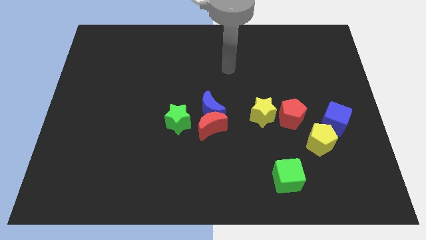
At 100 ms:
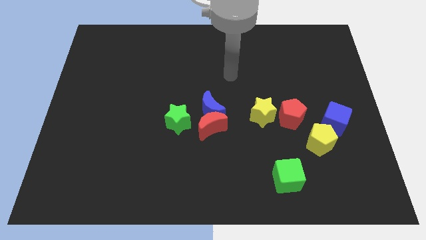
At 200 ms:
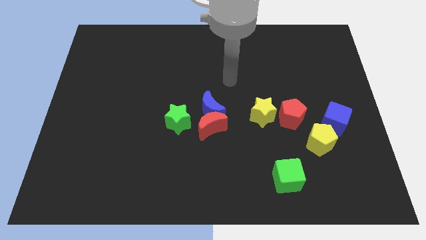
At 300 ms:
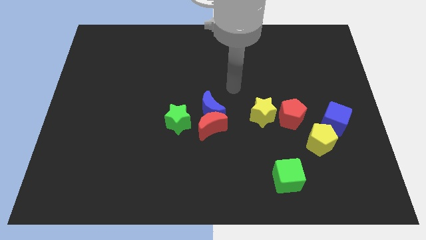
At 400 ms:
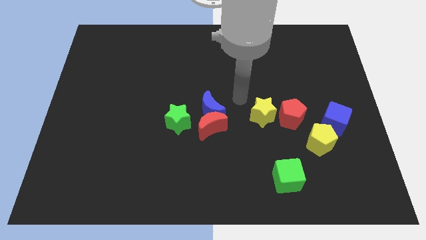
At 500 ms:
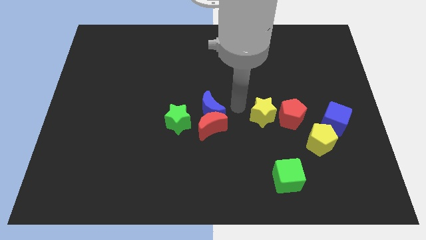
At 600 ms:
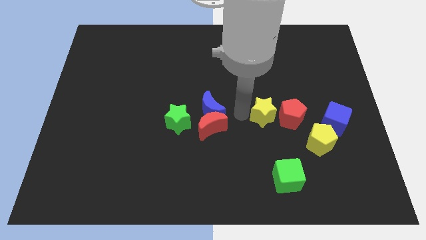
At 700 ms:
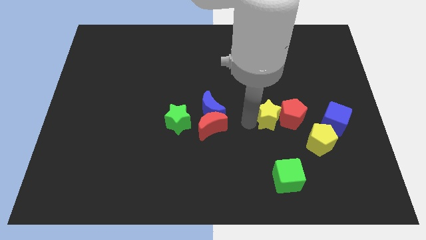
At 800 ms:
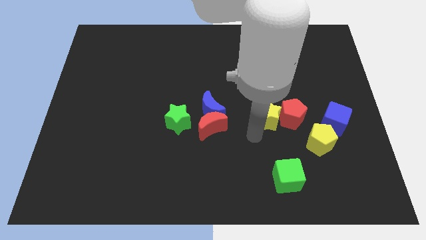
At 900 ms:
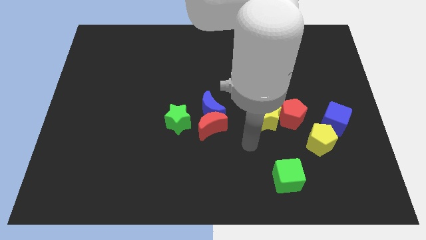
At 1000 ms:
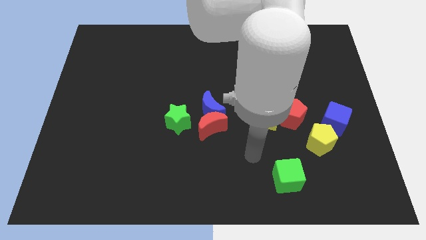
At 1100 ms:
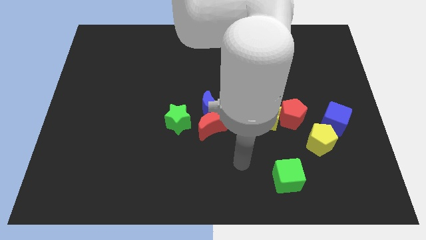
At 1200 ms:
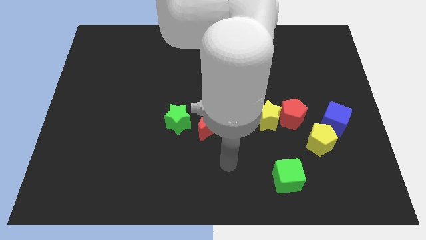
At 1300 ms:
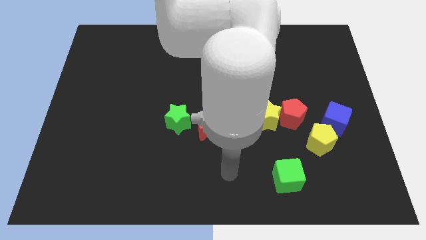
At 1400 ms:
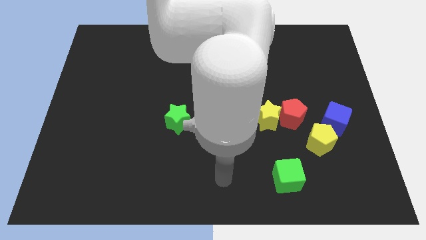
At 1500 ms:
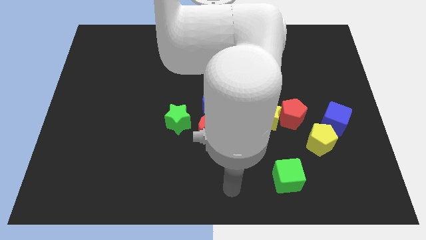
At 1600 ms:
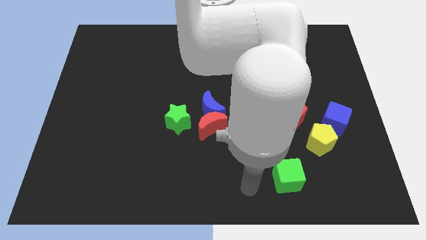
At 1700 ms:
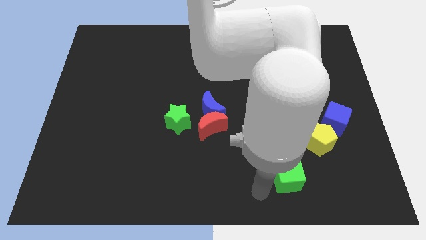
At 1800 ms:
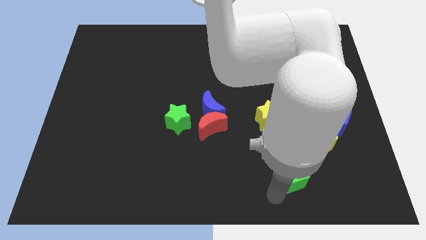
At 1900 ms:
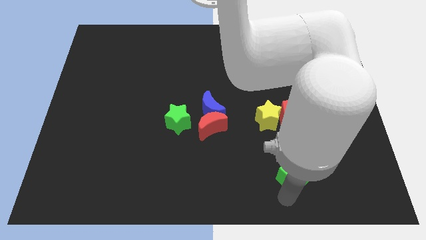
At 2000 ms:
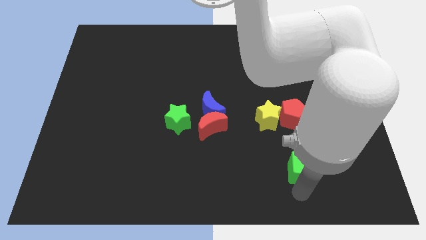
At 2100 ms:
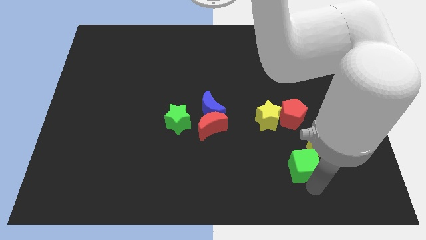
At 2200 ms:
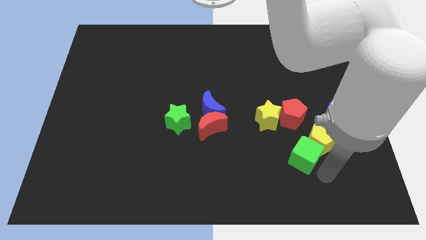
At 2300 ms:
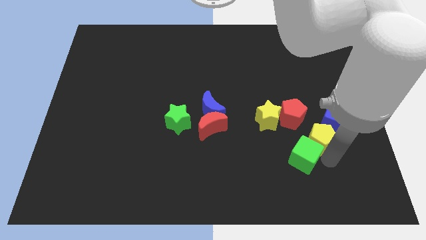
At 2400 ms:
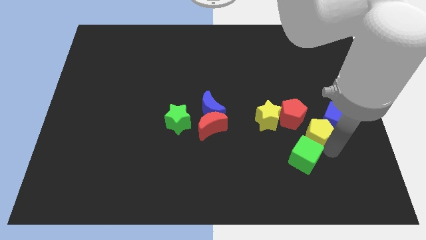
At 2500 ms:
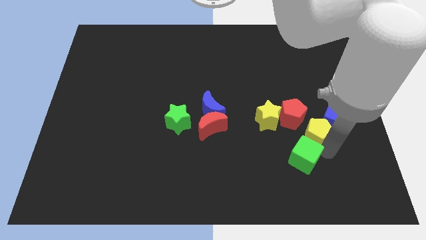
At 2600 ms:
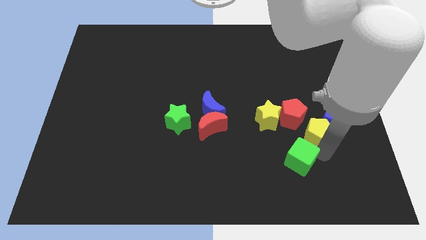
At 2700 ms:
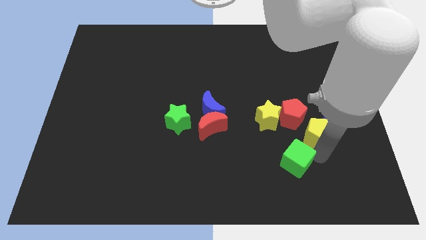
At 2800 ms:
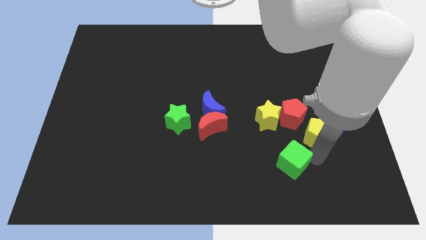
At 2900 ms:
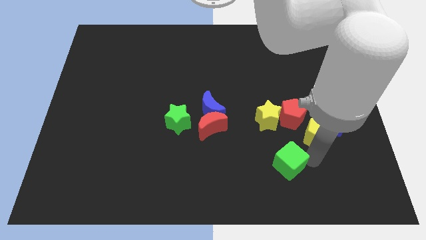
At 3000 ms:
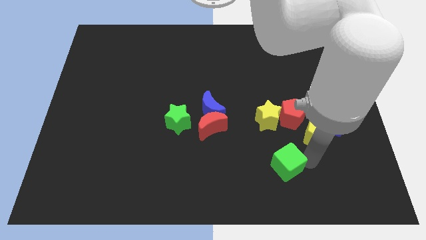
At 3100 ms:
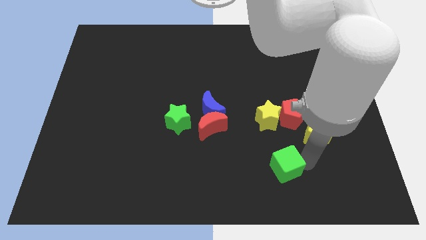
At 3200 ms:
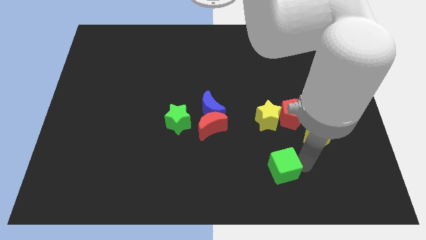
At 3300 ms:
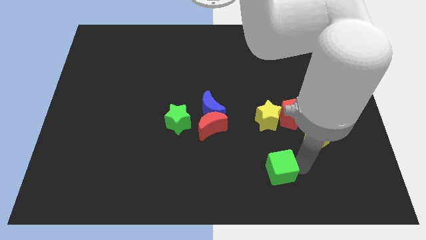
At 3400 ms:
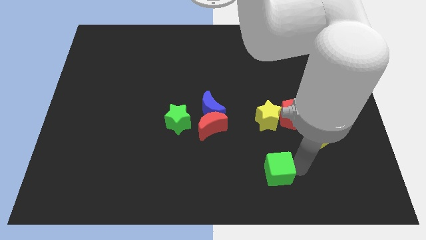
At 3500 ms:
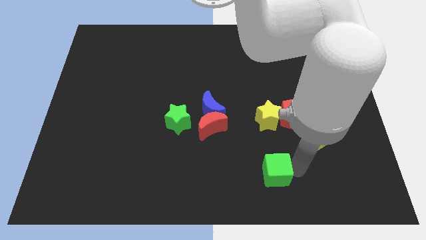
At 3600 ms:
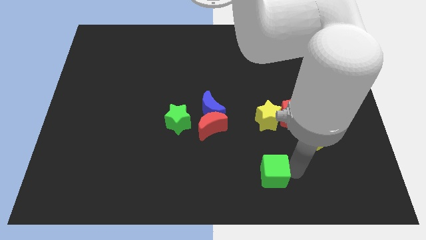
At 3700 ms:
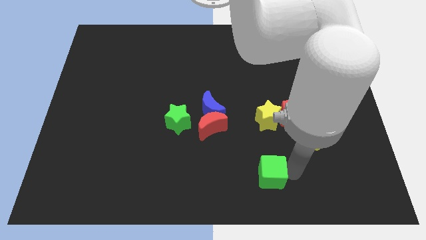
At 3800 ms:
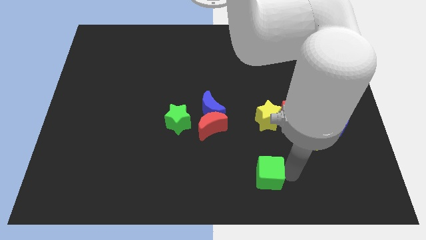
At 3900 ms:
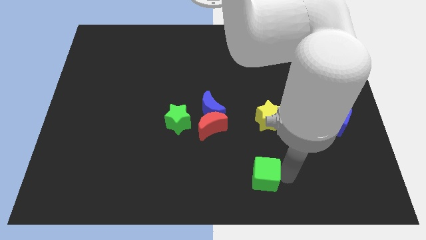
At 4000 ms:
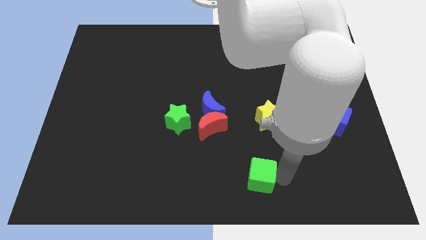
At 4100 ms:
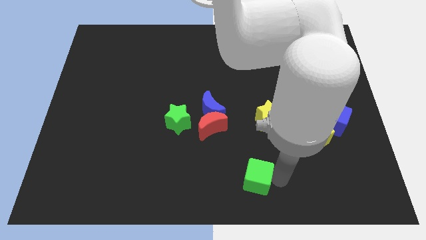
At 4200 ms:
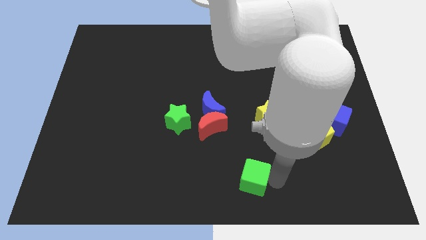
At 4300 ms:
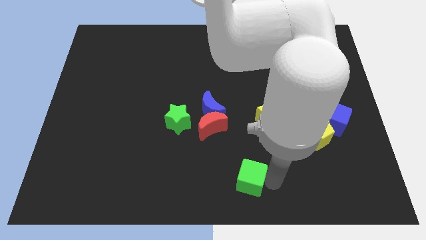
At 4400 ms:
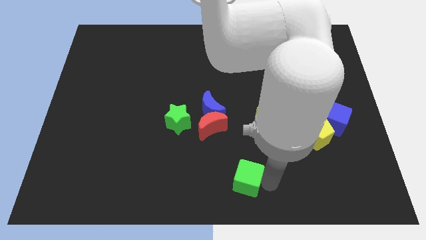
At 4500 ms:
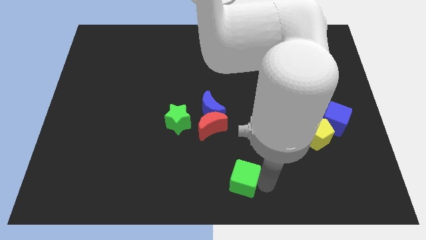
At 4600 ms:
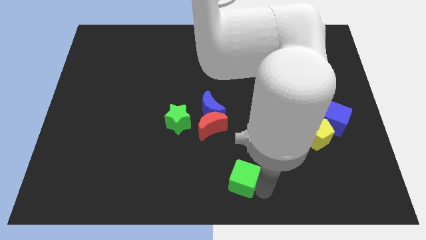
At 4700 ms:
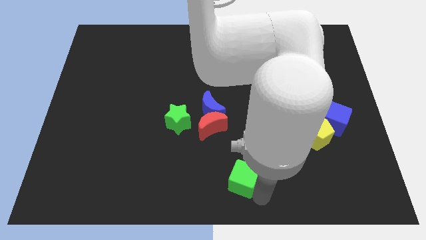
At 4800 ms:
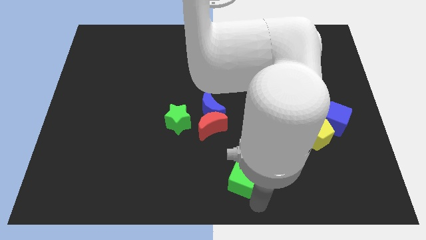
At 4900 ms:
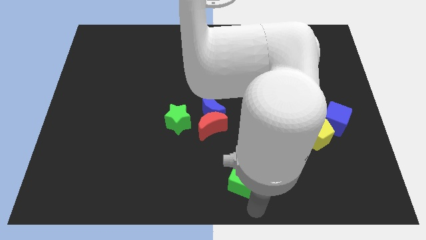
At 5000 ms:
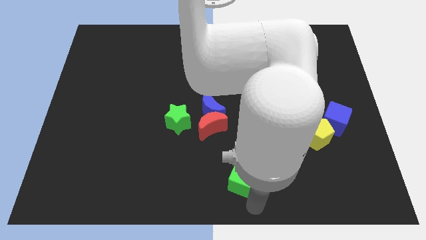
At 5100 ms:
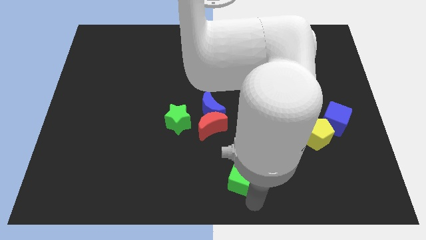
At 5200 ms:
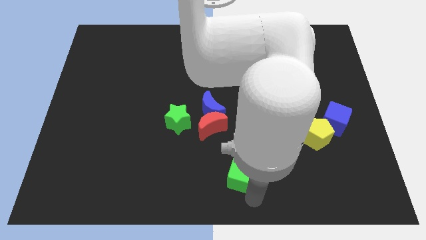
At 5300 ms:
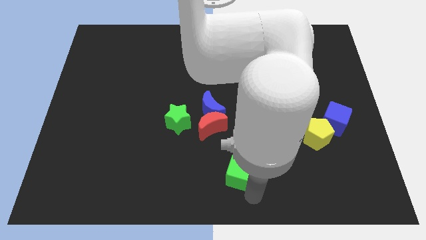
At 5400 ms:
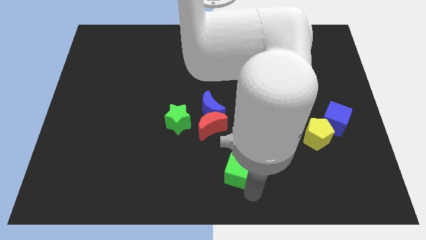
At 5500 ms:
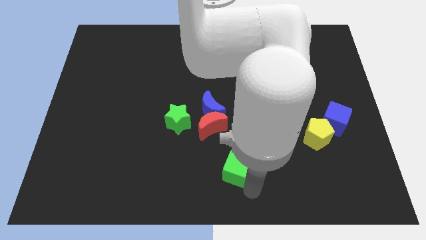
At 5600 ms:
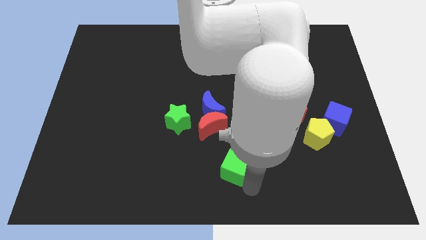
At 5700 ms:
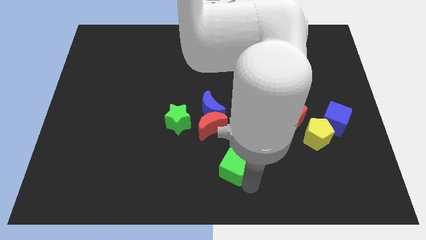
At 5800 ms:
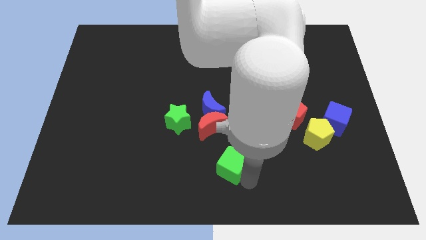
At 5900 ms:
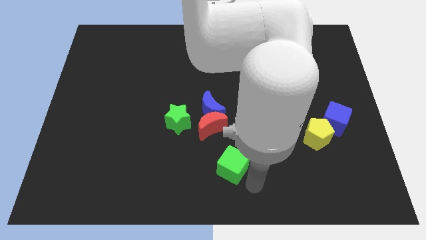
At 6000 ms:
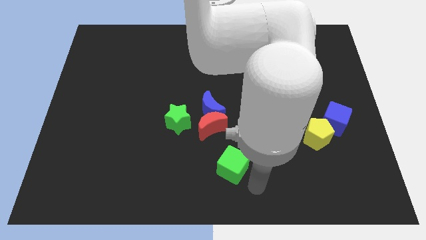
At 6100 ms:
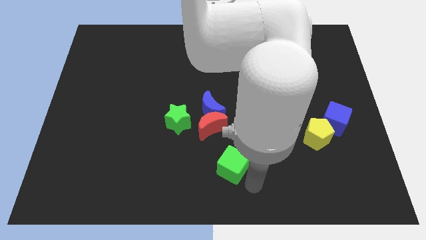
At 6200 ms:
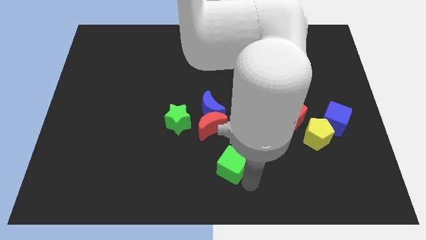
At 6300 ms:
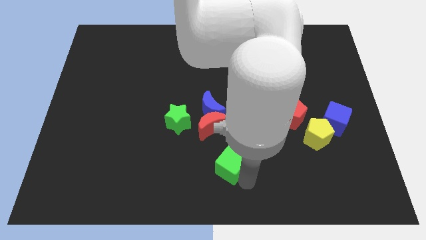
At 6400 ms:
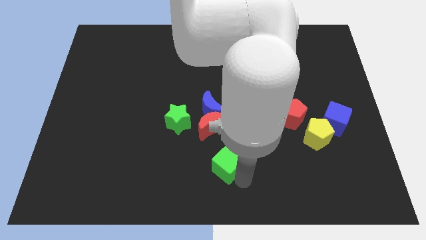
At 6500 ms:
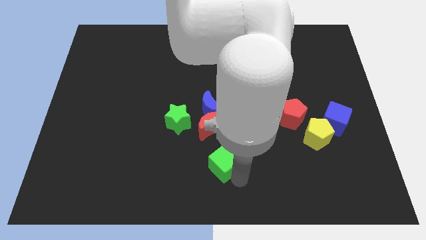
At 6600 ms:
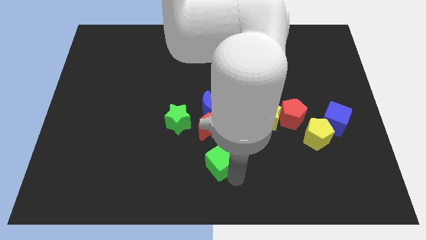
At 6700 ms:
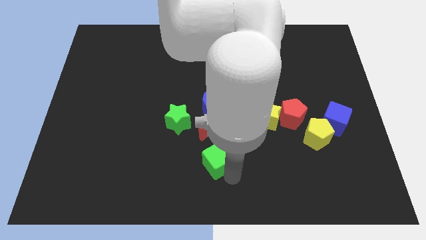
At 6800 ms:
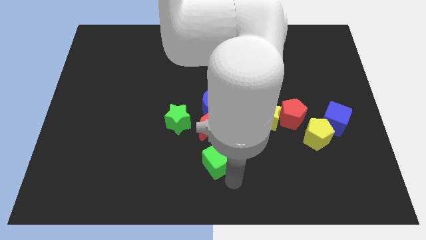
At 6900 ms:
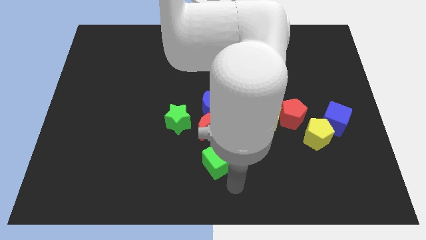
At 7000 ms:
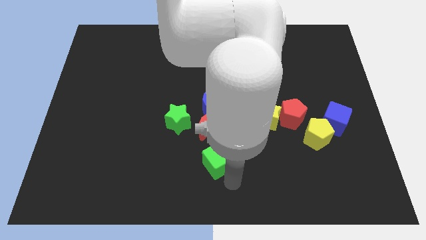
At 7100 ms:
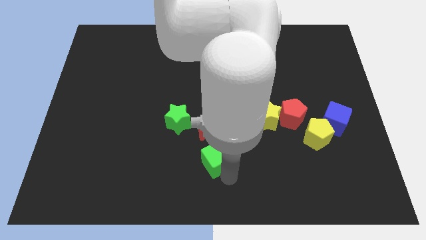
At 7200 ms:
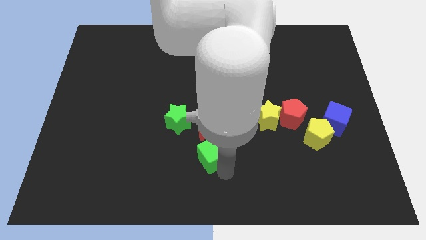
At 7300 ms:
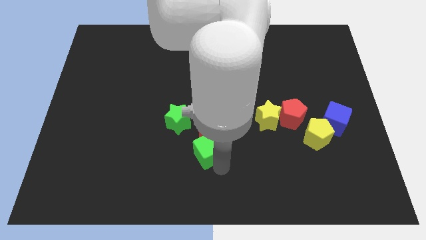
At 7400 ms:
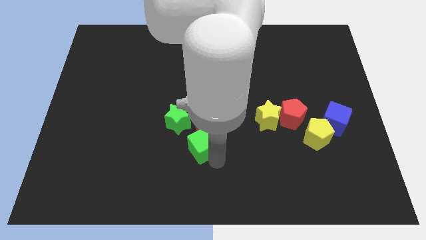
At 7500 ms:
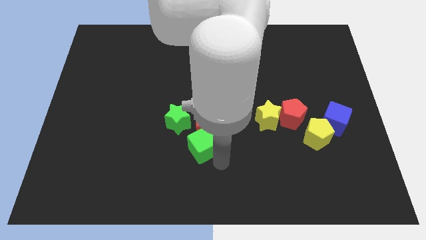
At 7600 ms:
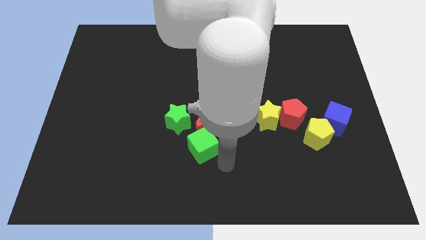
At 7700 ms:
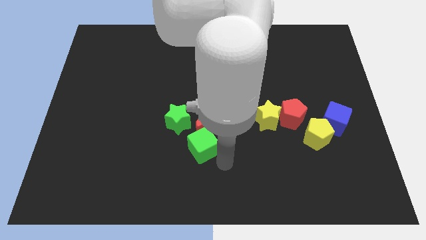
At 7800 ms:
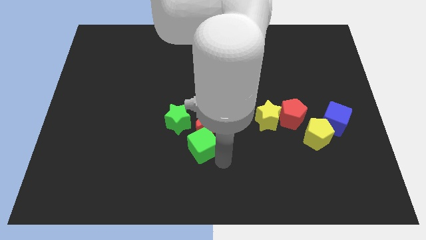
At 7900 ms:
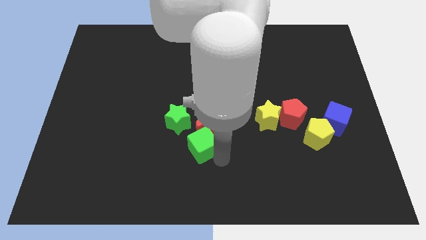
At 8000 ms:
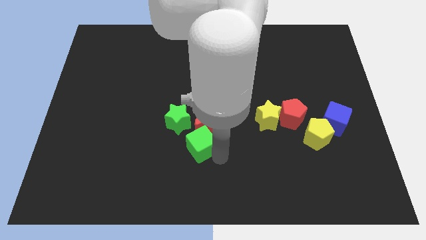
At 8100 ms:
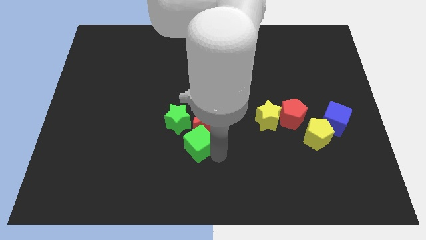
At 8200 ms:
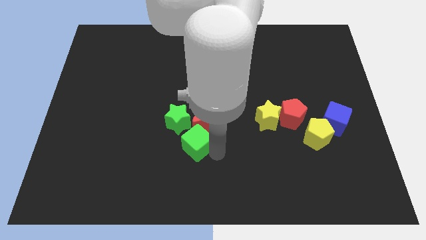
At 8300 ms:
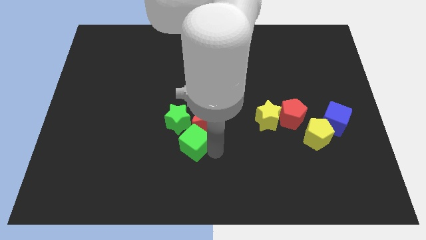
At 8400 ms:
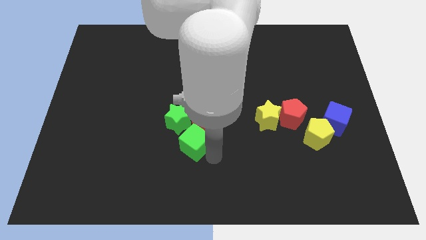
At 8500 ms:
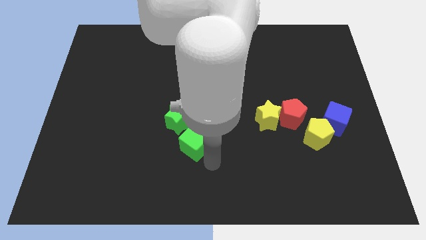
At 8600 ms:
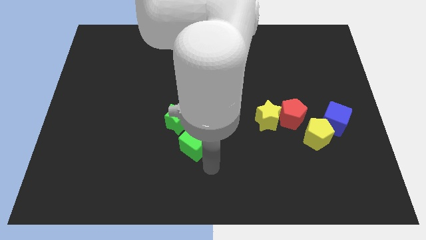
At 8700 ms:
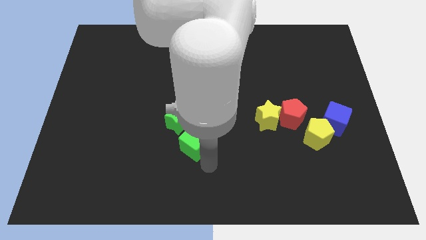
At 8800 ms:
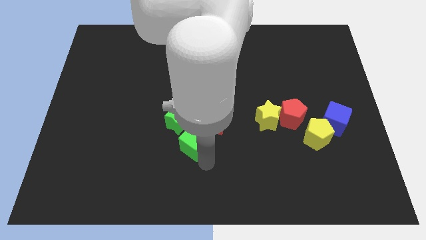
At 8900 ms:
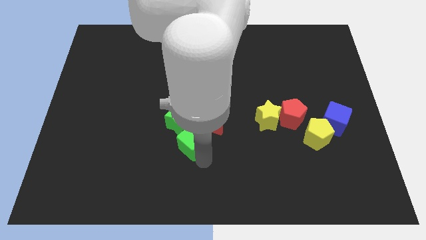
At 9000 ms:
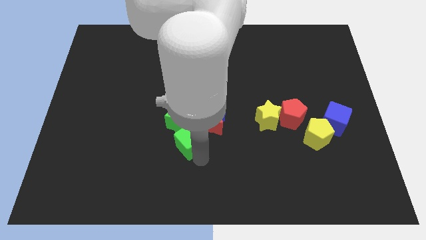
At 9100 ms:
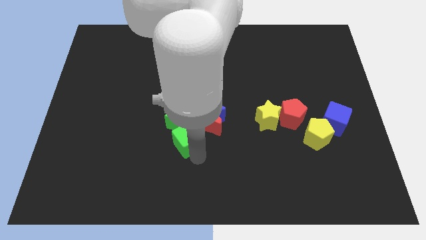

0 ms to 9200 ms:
move the green cube towards the green star
